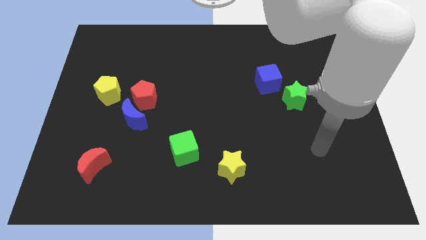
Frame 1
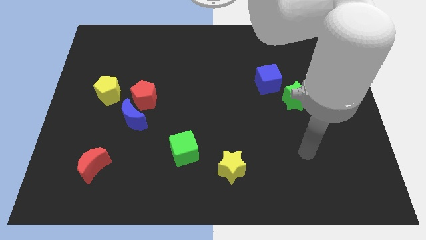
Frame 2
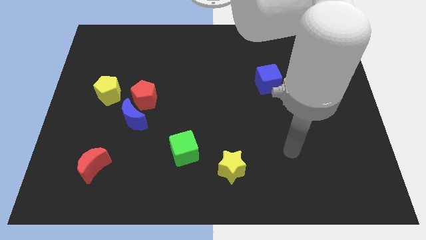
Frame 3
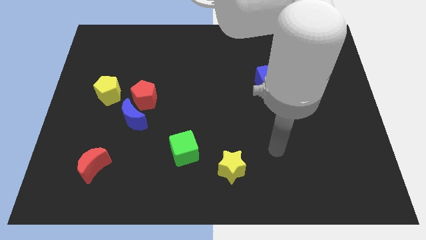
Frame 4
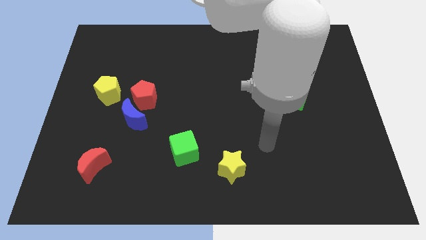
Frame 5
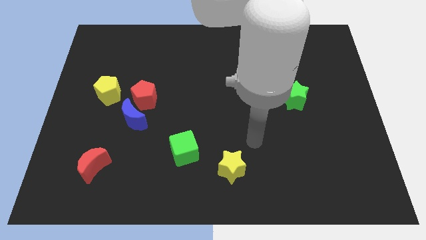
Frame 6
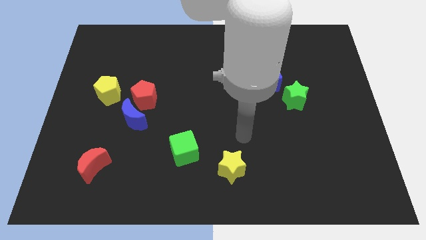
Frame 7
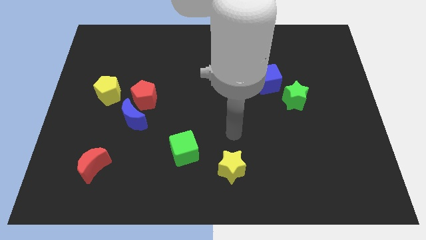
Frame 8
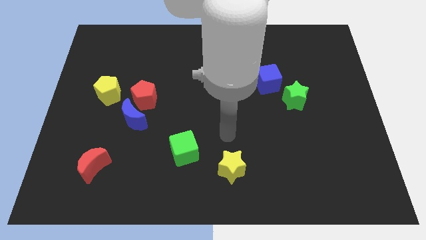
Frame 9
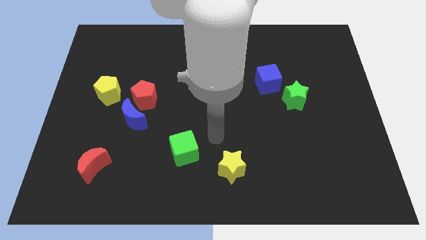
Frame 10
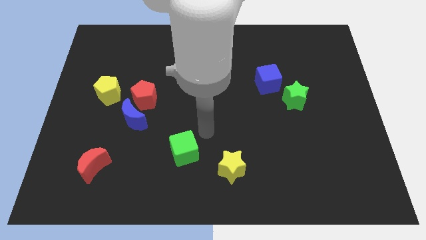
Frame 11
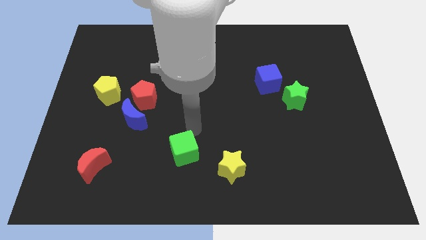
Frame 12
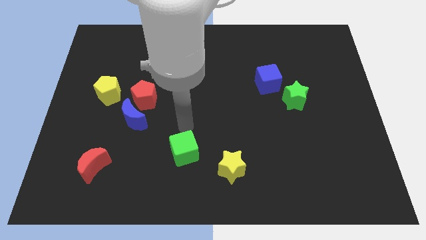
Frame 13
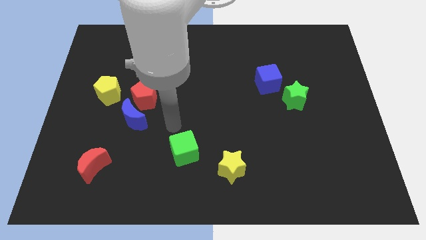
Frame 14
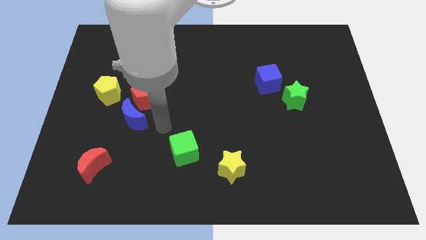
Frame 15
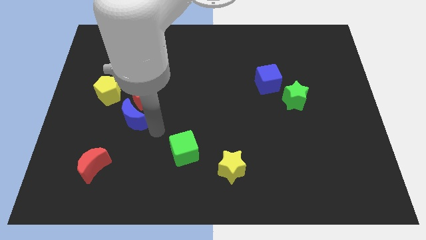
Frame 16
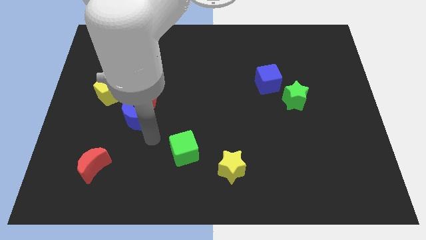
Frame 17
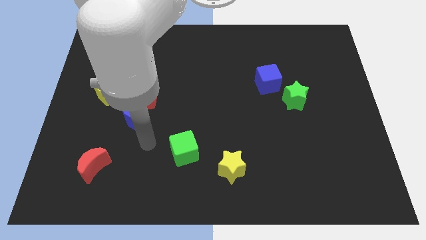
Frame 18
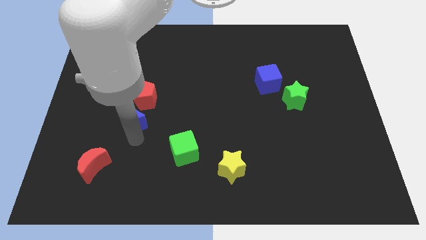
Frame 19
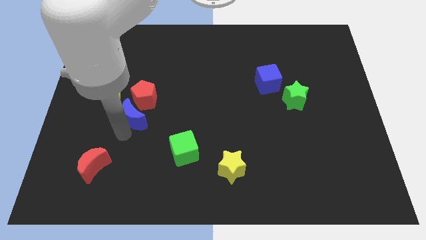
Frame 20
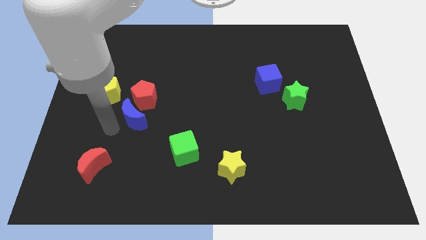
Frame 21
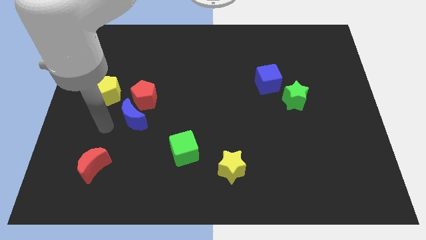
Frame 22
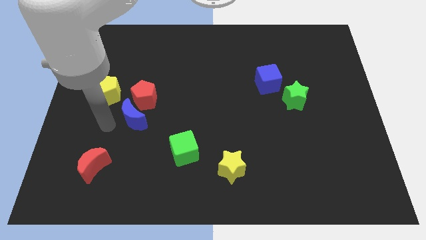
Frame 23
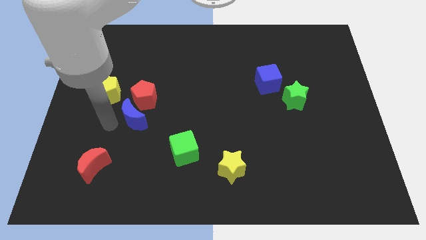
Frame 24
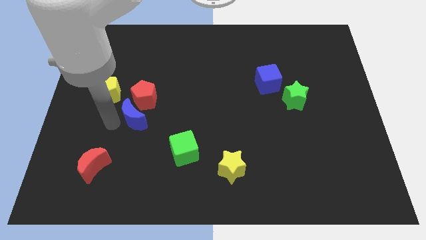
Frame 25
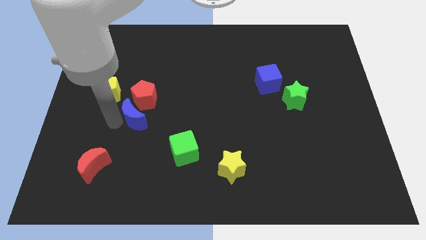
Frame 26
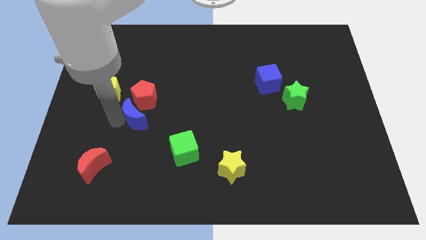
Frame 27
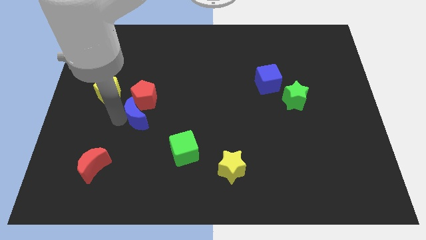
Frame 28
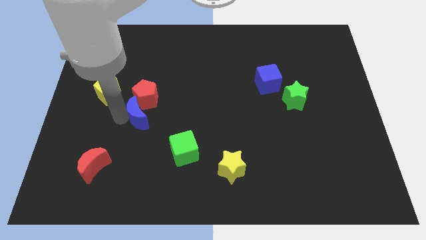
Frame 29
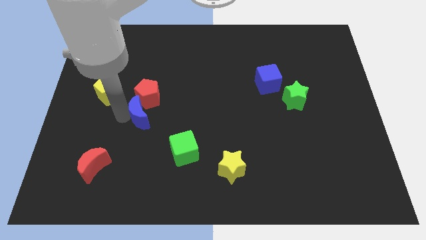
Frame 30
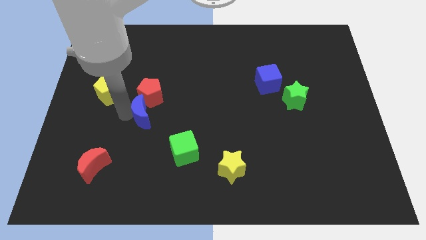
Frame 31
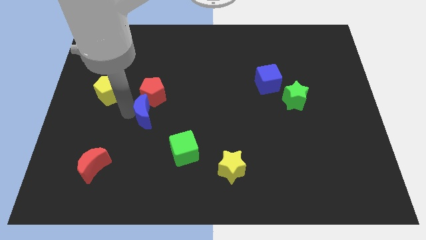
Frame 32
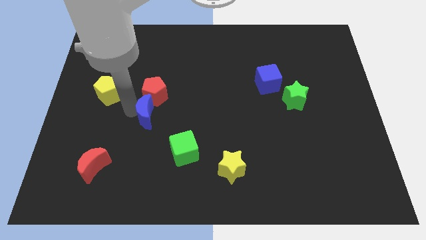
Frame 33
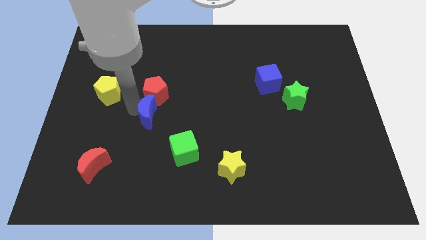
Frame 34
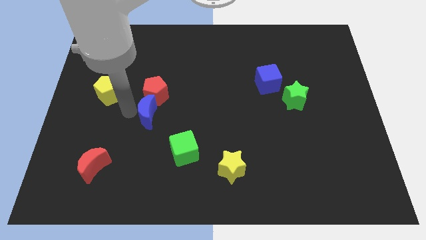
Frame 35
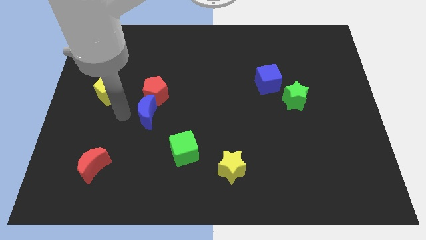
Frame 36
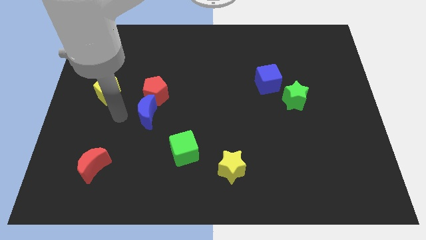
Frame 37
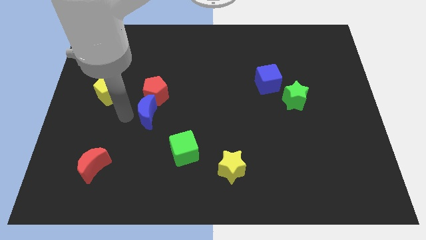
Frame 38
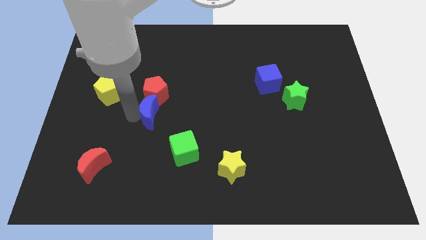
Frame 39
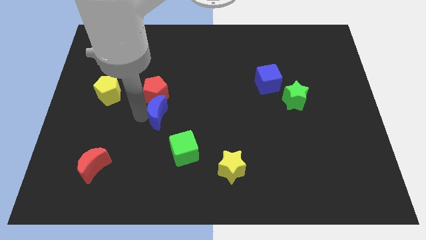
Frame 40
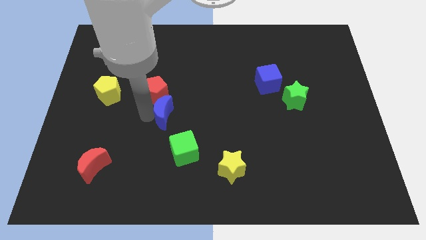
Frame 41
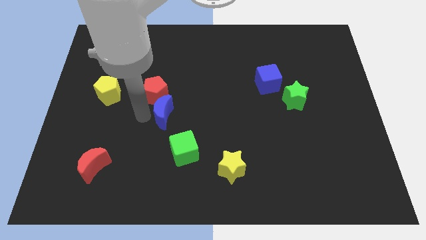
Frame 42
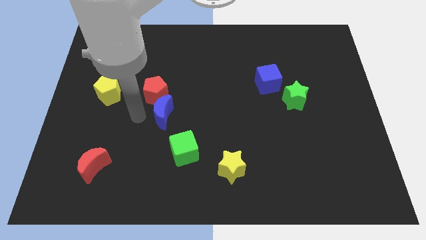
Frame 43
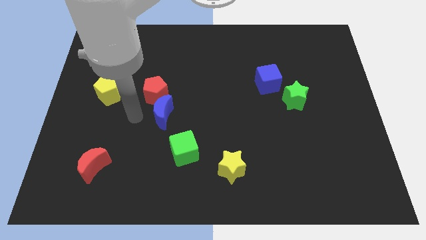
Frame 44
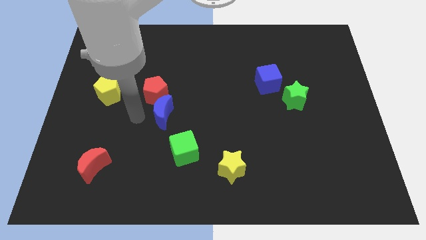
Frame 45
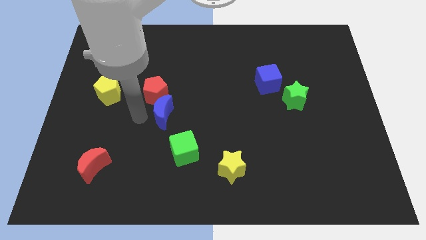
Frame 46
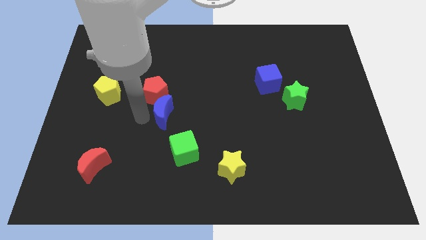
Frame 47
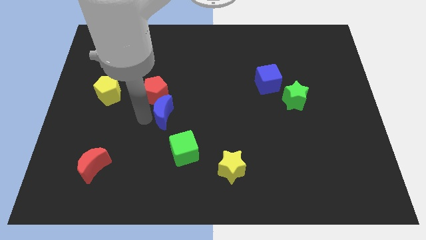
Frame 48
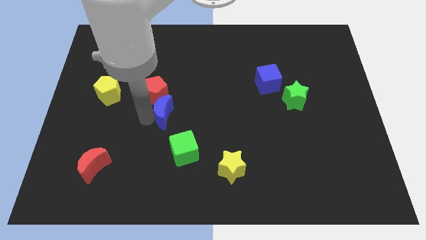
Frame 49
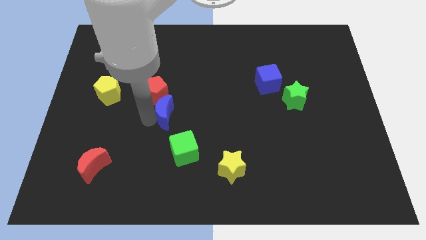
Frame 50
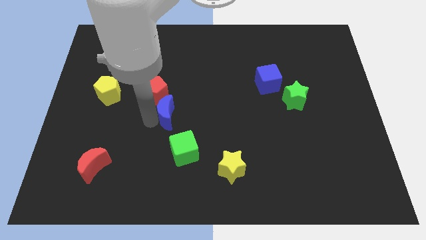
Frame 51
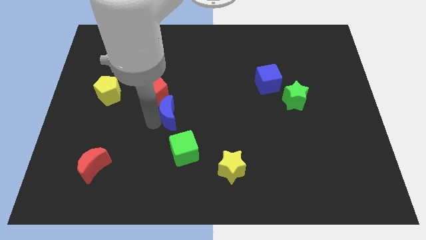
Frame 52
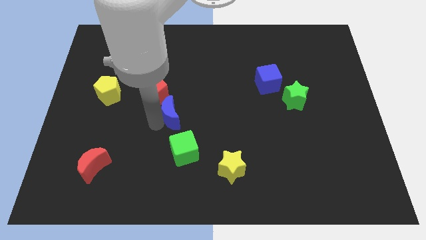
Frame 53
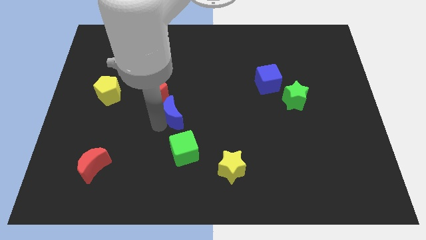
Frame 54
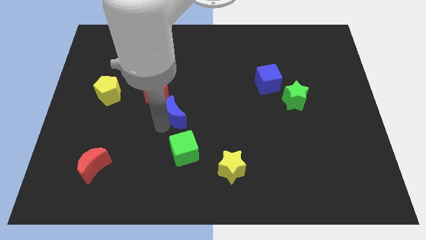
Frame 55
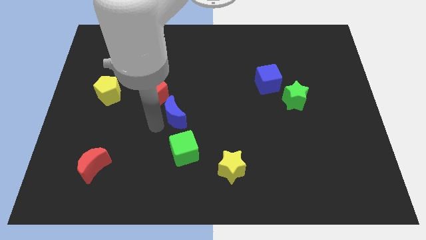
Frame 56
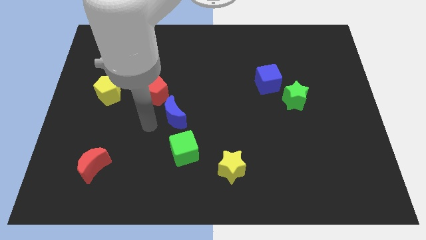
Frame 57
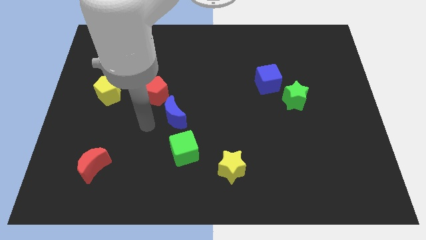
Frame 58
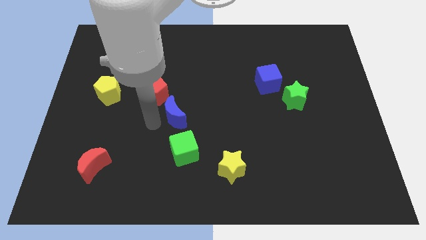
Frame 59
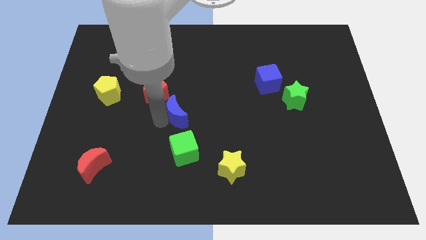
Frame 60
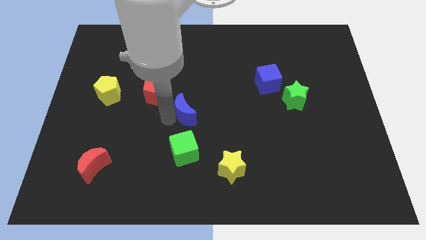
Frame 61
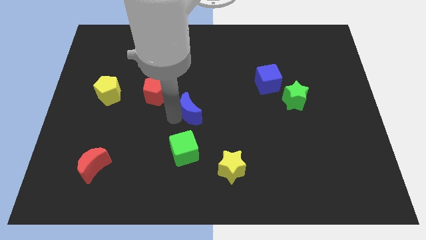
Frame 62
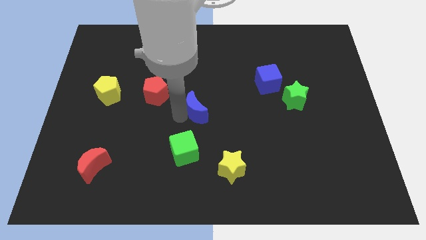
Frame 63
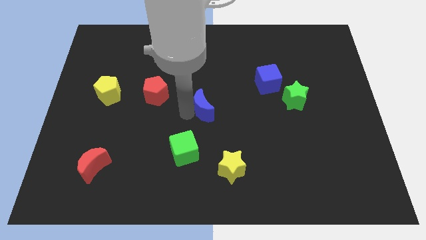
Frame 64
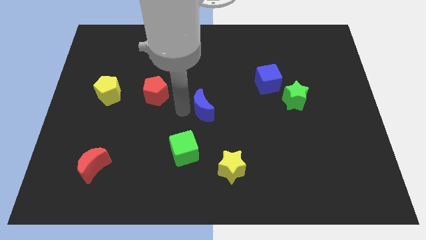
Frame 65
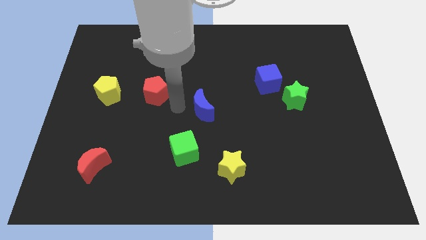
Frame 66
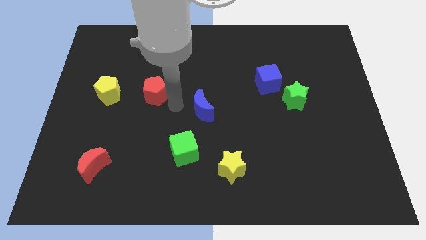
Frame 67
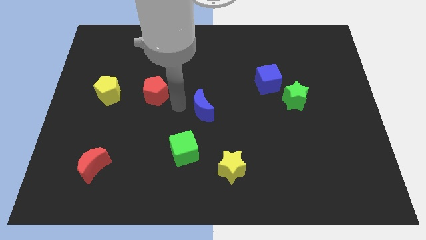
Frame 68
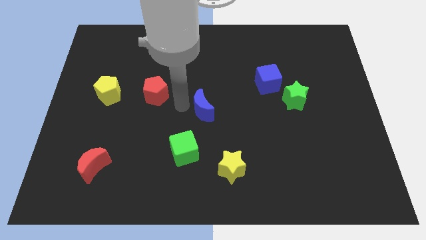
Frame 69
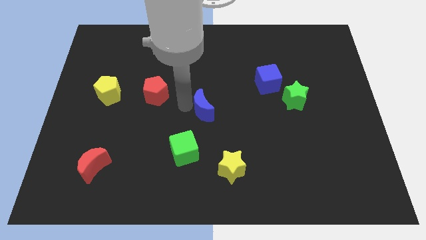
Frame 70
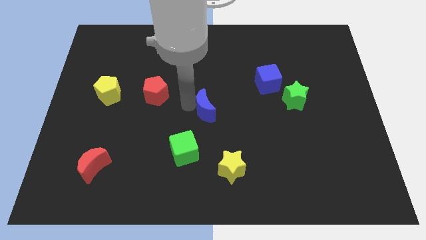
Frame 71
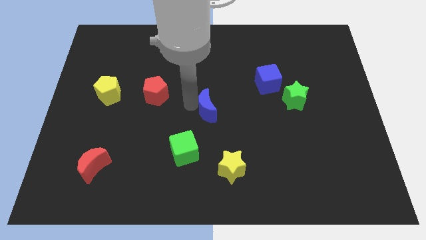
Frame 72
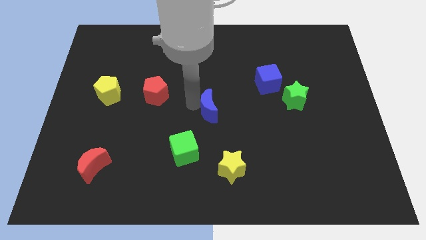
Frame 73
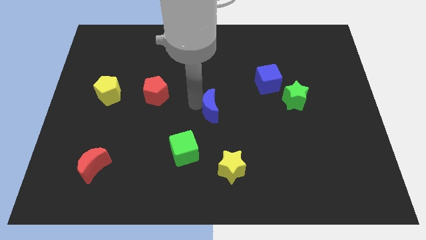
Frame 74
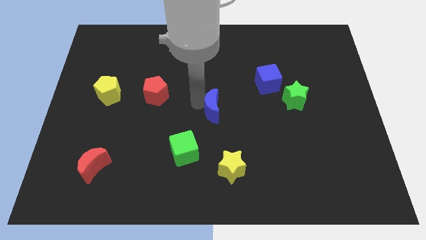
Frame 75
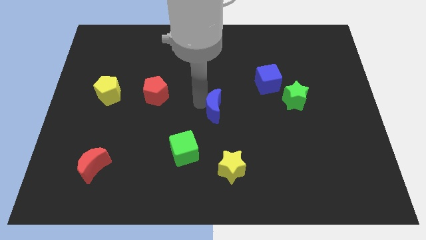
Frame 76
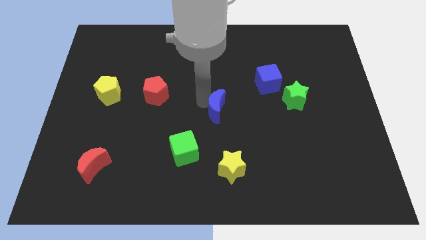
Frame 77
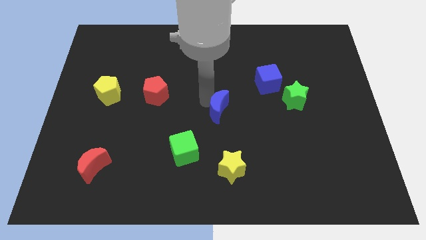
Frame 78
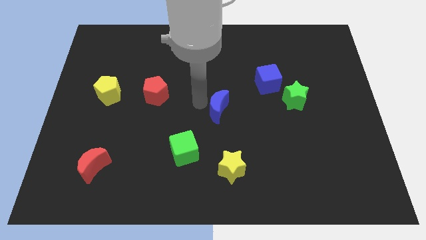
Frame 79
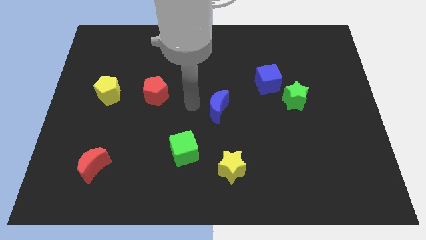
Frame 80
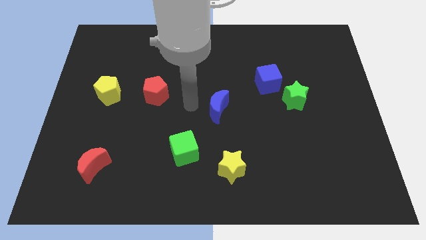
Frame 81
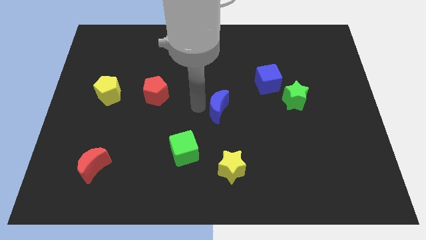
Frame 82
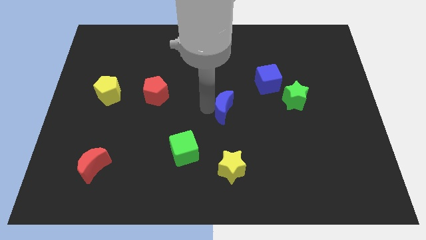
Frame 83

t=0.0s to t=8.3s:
move the blue moon right
